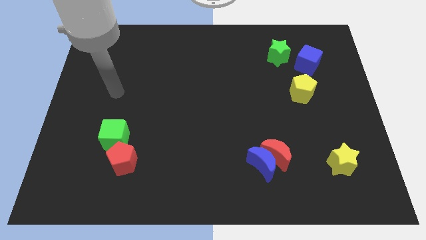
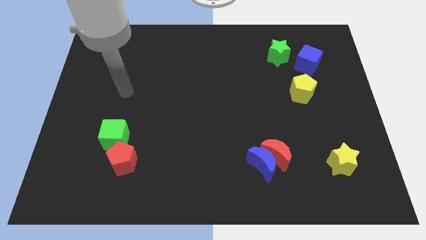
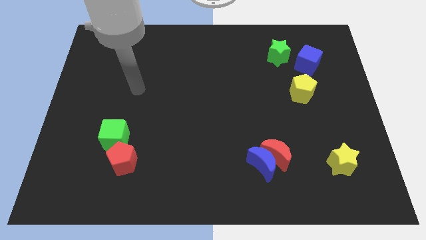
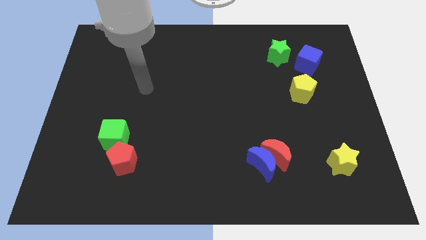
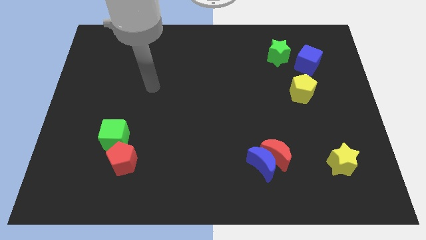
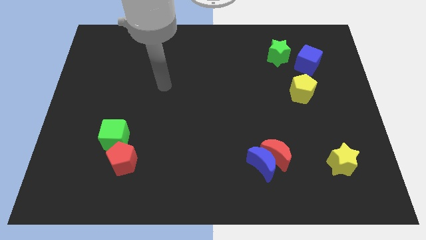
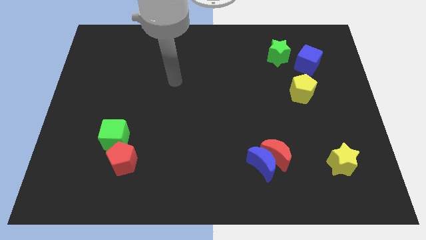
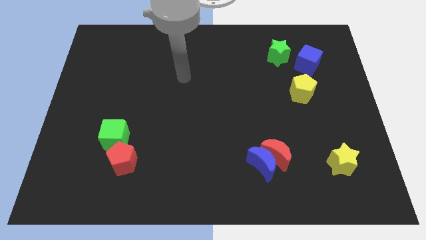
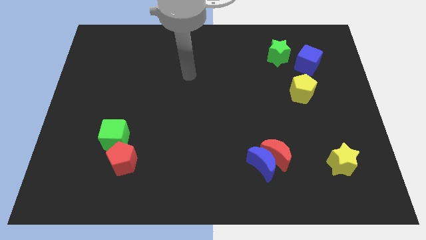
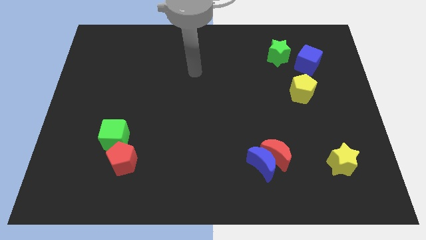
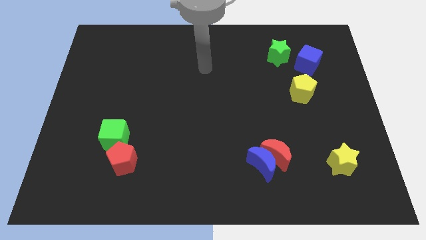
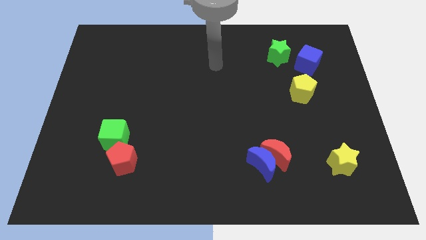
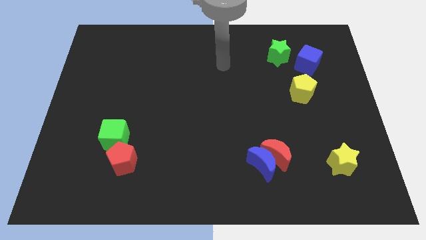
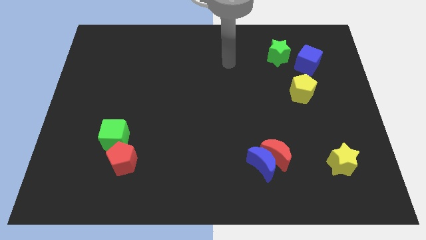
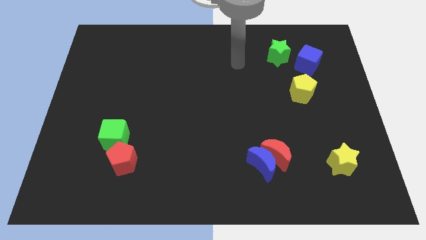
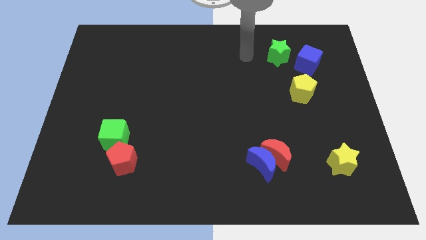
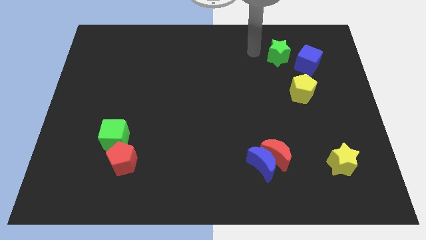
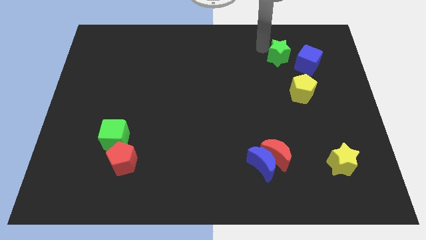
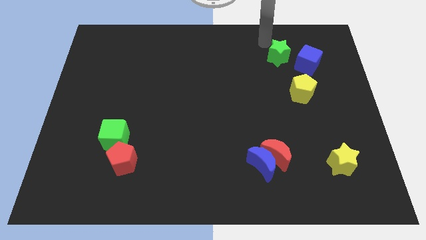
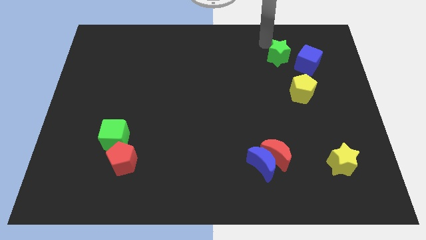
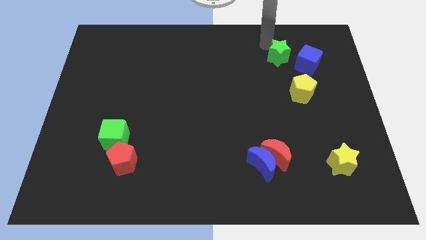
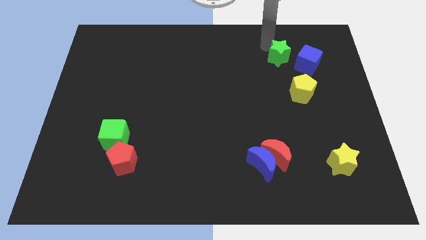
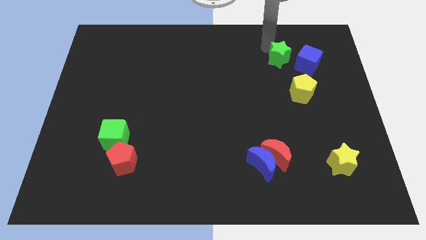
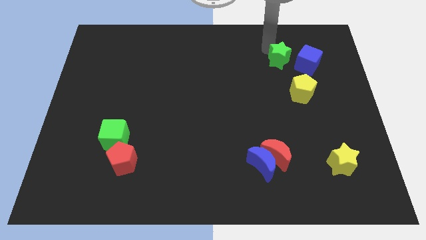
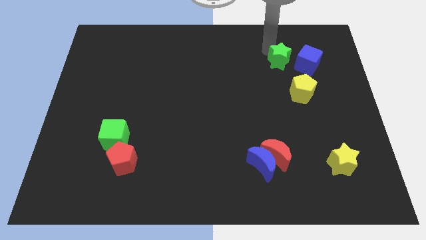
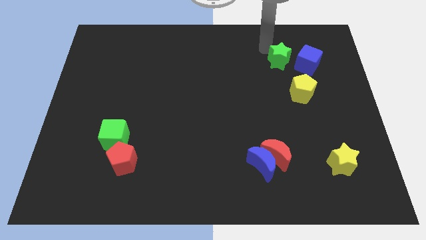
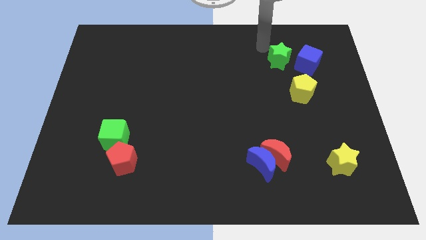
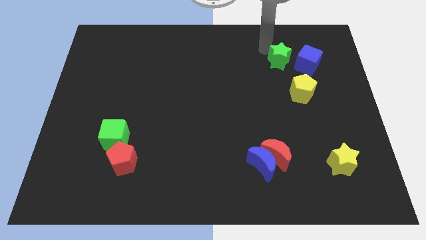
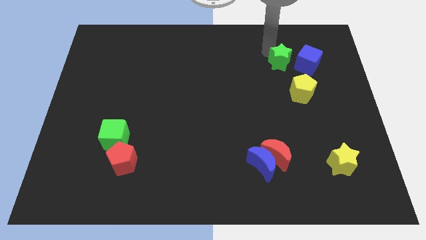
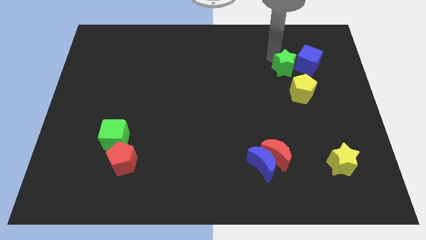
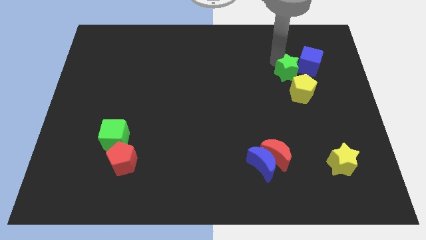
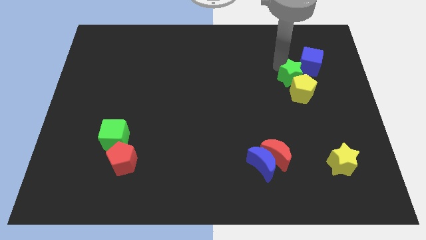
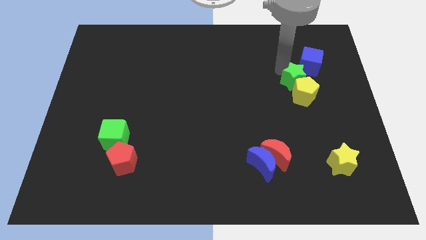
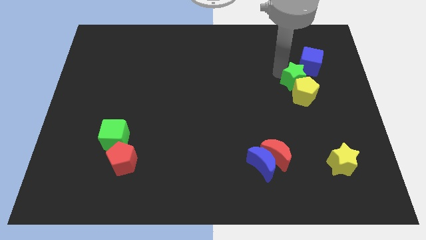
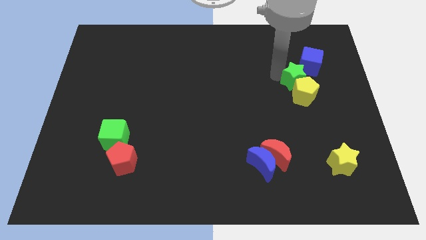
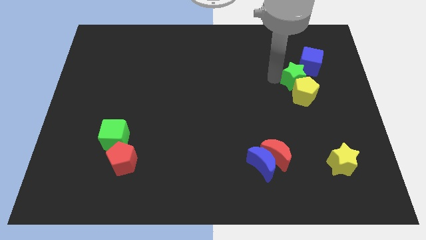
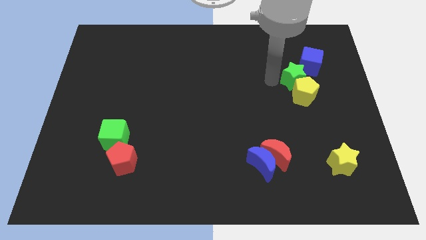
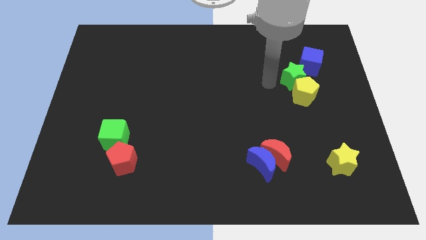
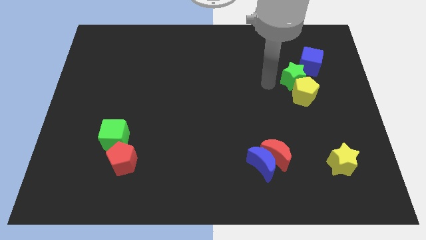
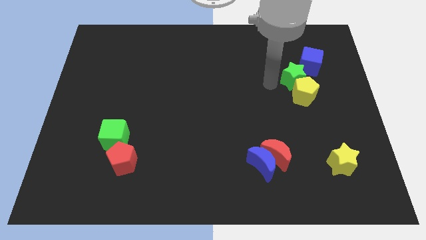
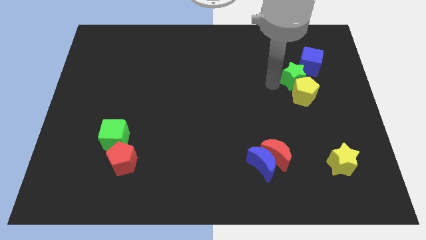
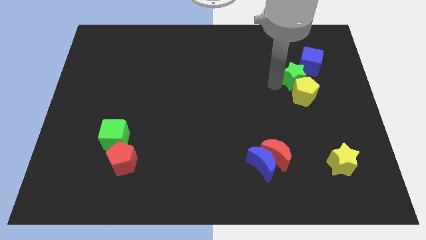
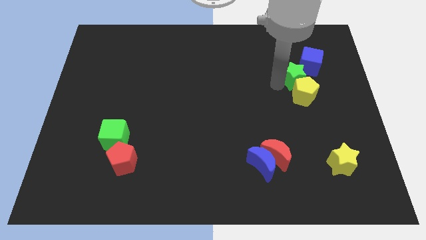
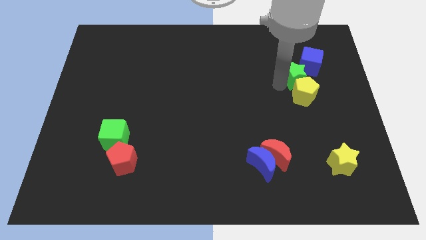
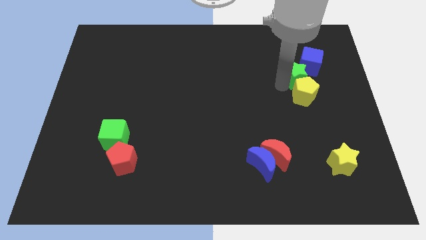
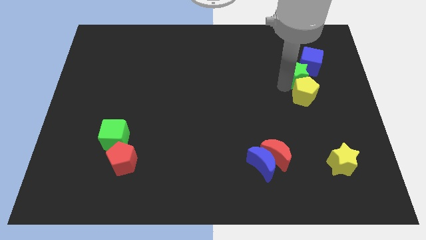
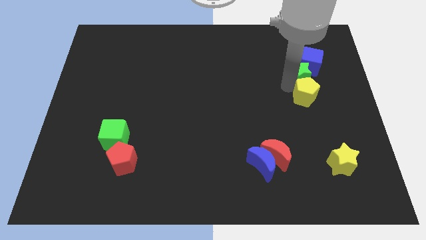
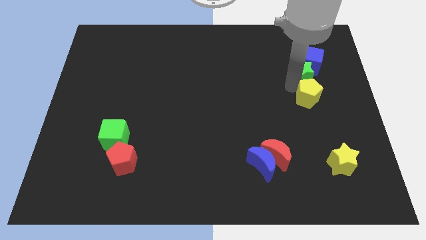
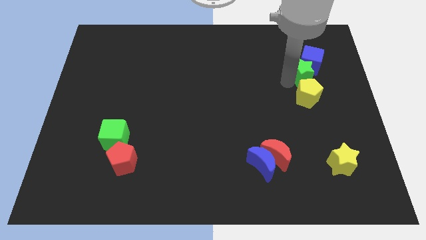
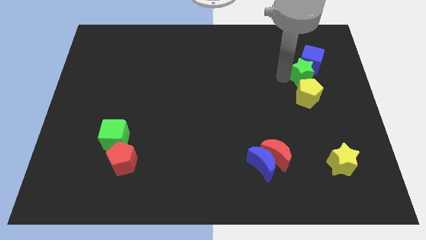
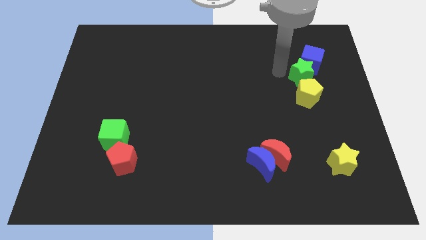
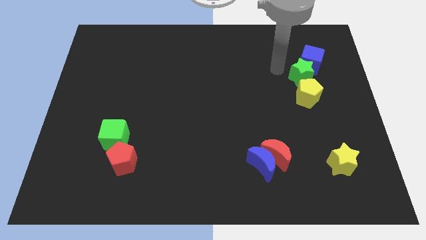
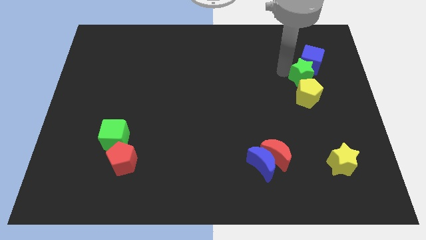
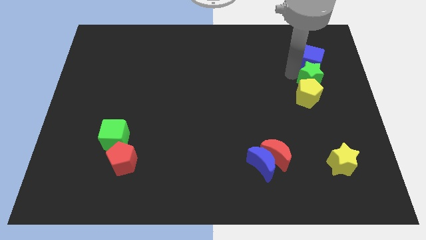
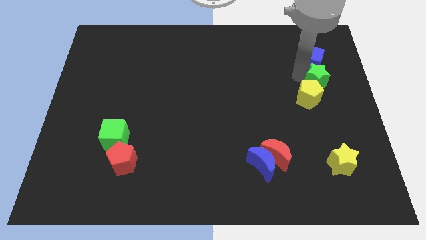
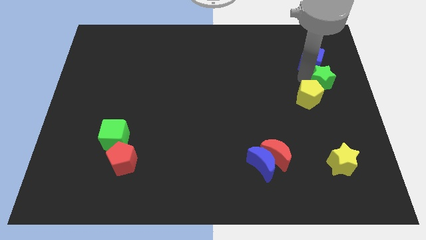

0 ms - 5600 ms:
slide the green star to the center right

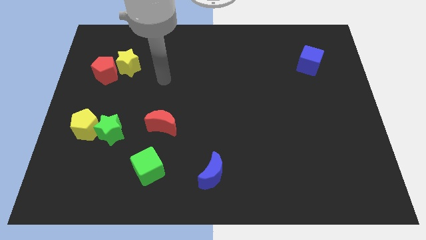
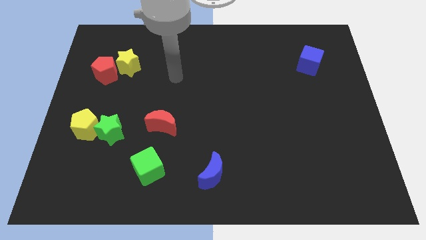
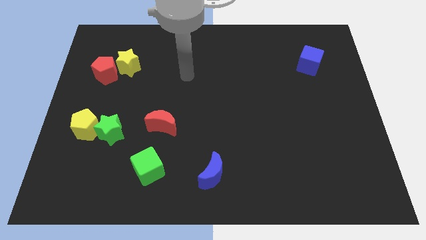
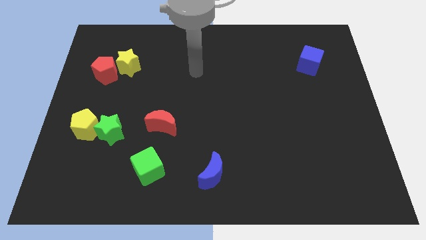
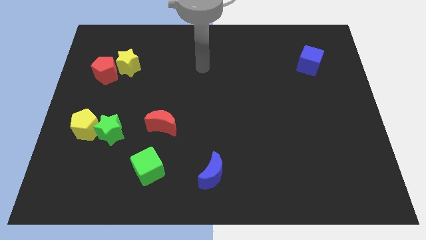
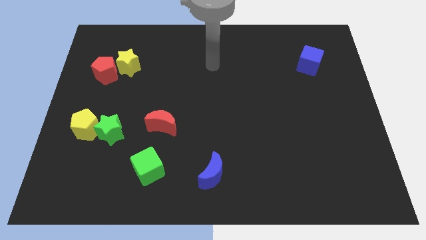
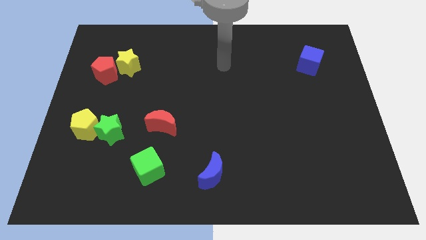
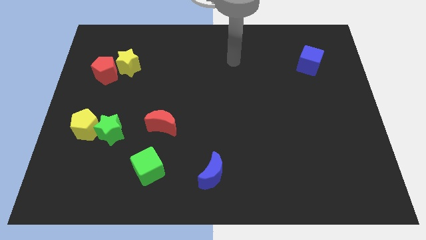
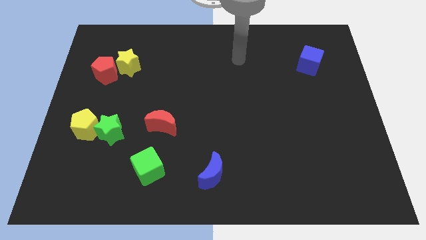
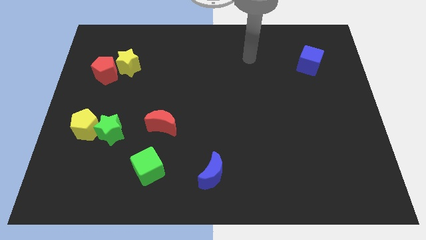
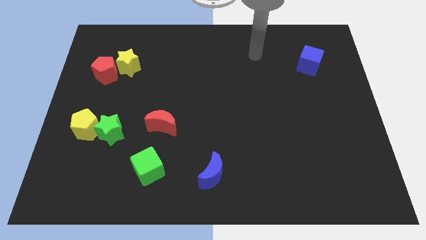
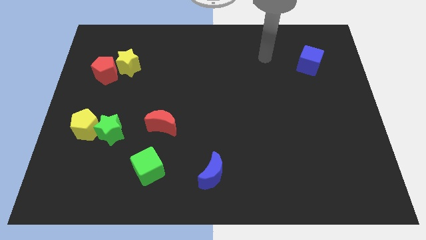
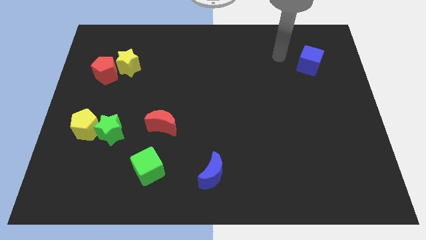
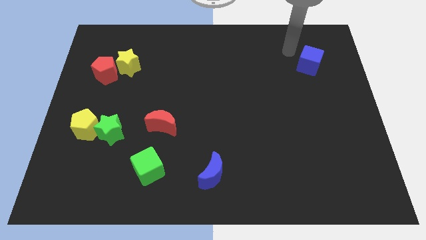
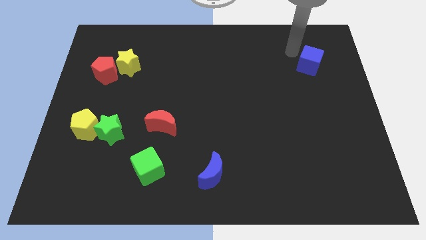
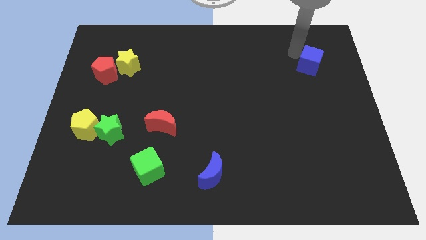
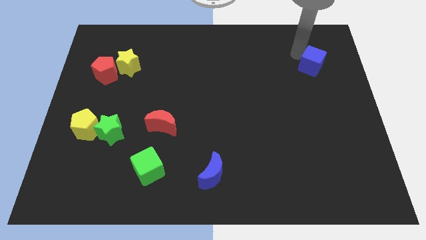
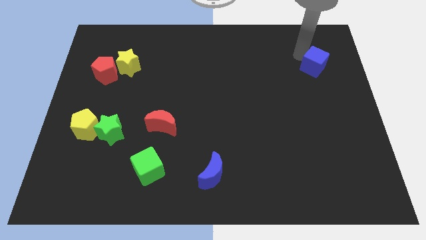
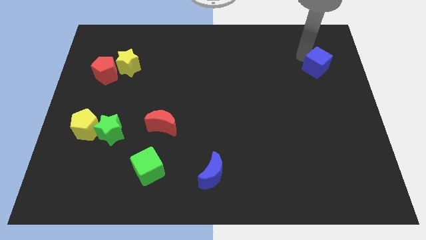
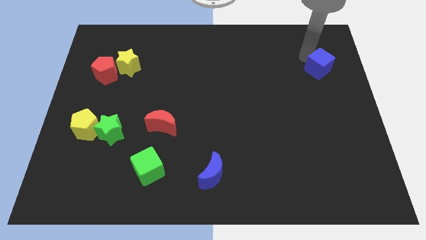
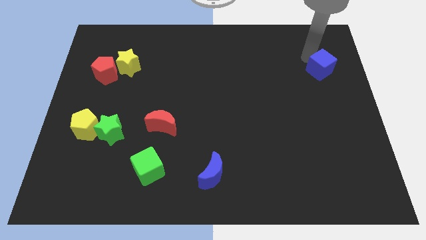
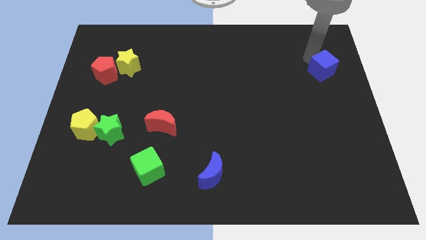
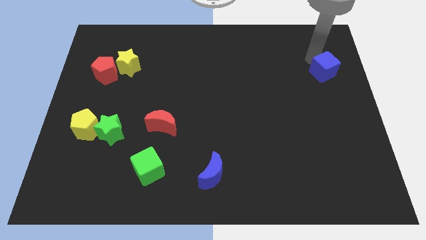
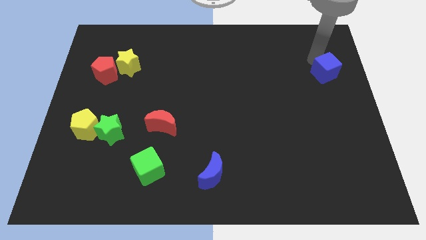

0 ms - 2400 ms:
slide the blue cube to the right side
